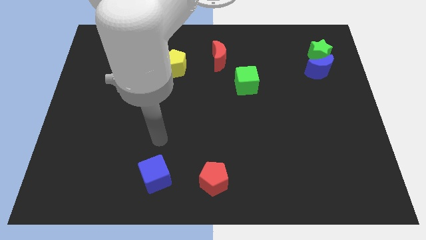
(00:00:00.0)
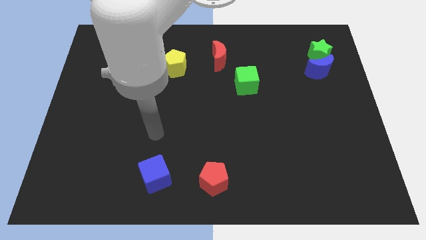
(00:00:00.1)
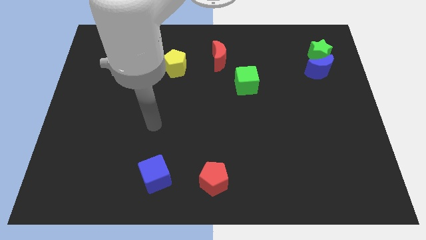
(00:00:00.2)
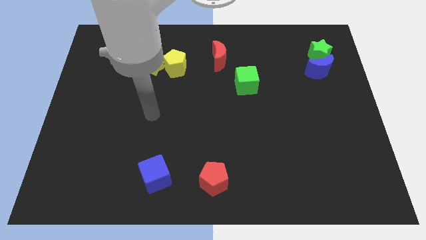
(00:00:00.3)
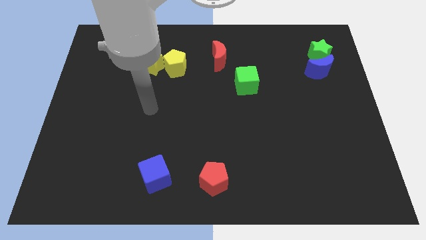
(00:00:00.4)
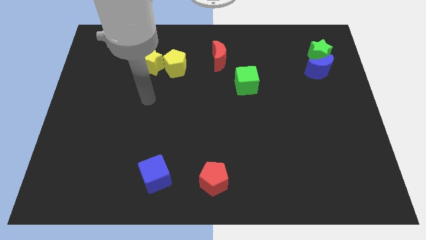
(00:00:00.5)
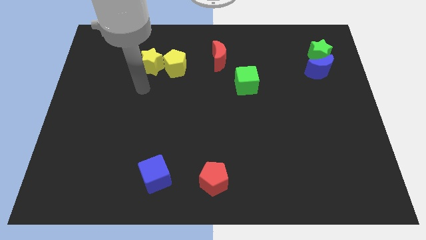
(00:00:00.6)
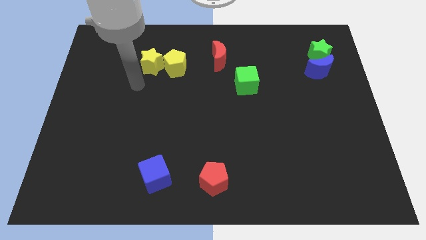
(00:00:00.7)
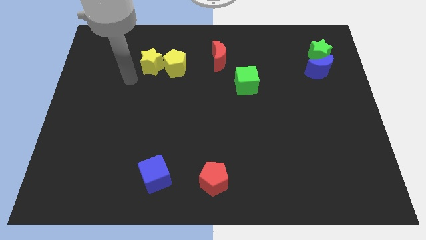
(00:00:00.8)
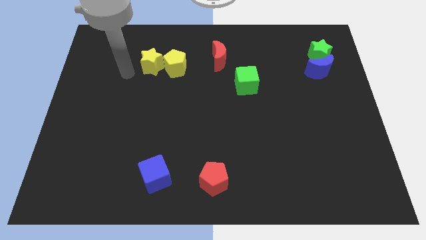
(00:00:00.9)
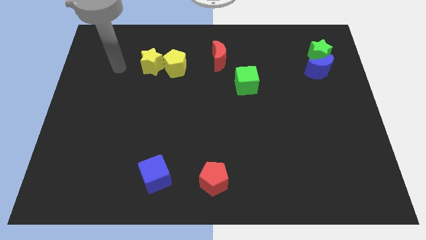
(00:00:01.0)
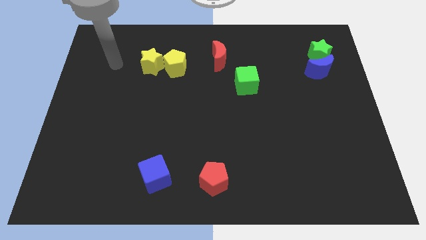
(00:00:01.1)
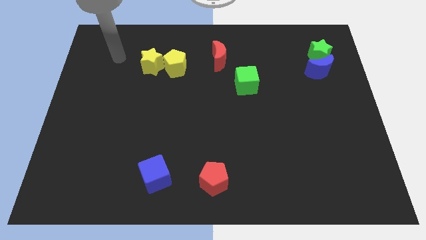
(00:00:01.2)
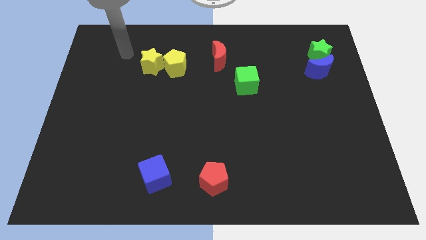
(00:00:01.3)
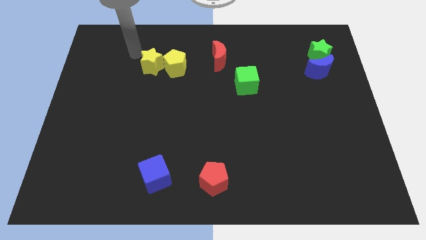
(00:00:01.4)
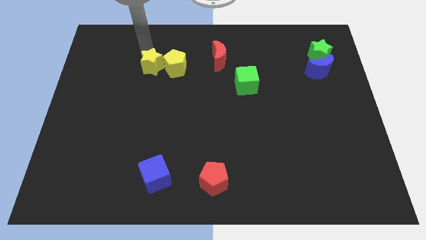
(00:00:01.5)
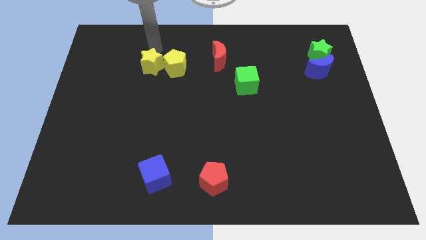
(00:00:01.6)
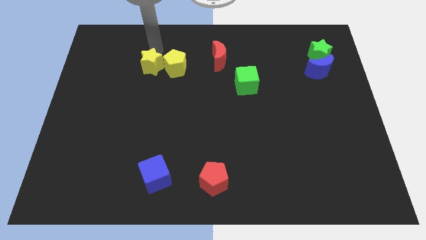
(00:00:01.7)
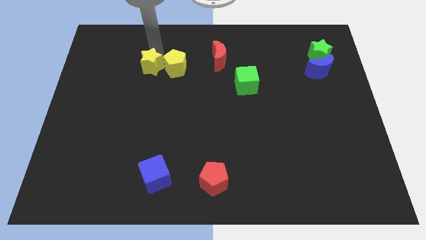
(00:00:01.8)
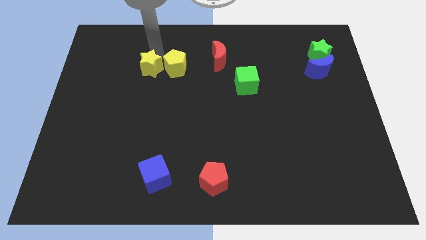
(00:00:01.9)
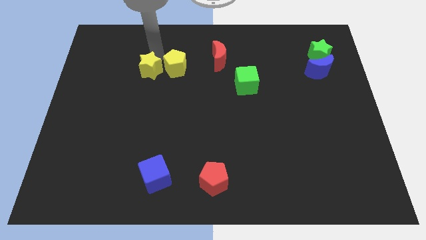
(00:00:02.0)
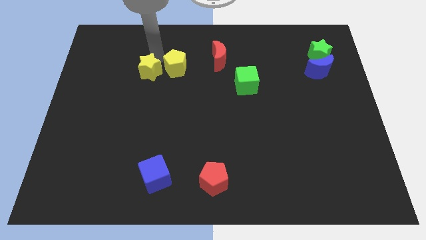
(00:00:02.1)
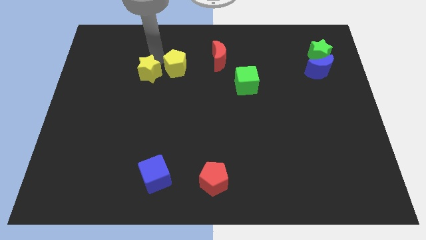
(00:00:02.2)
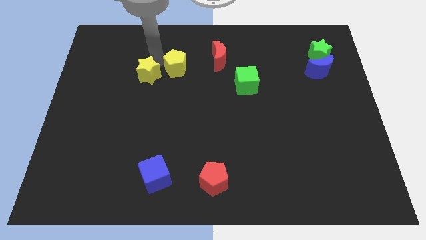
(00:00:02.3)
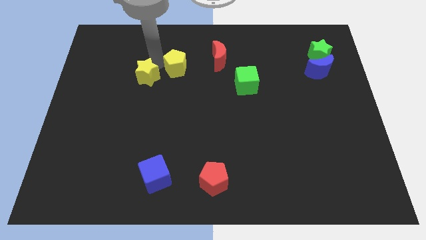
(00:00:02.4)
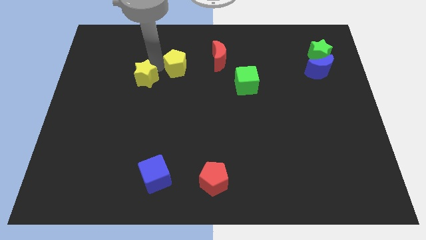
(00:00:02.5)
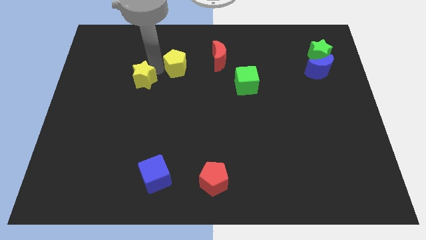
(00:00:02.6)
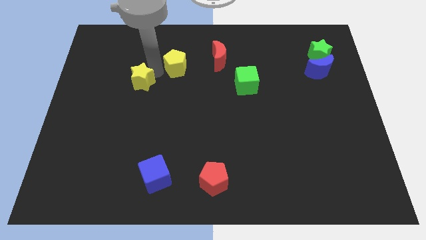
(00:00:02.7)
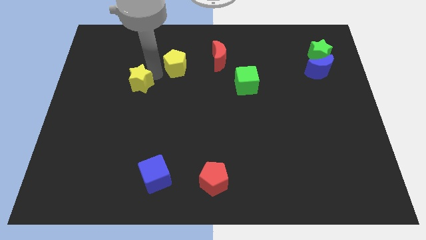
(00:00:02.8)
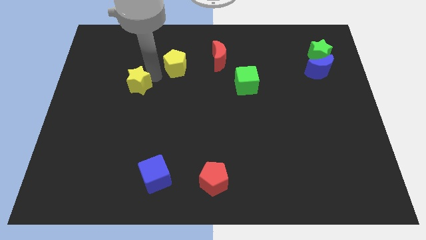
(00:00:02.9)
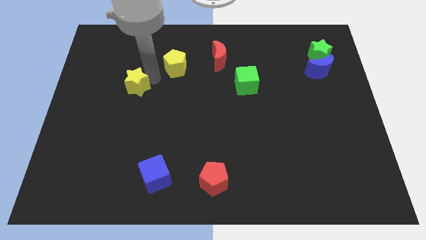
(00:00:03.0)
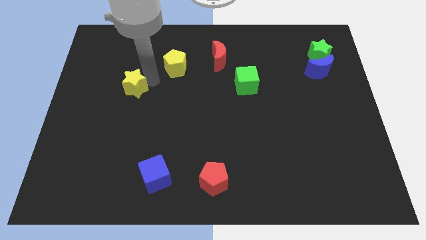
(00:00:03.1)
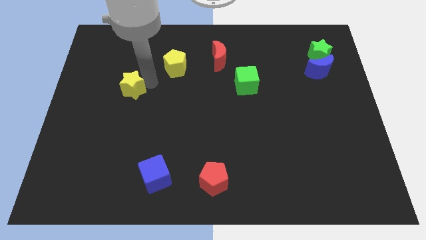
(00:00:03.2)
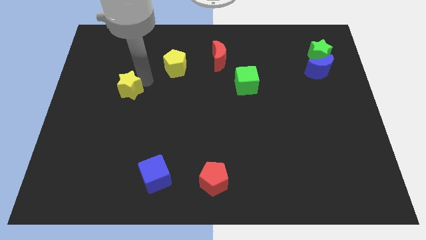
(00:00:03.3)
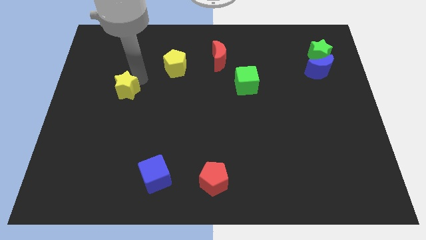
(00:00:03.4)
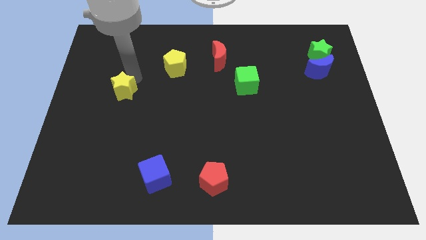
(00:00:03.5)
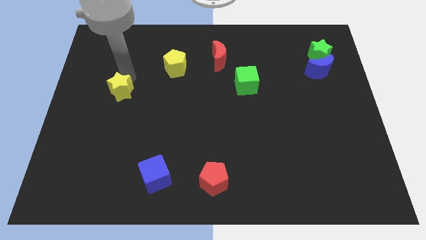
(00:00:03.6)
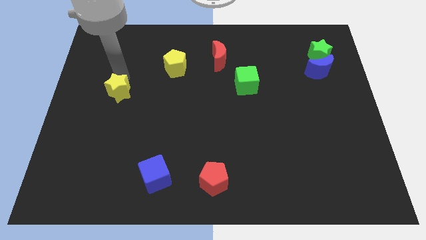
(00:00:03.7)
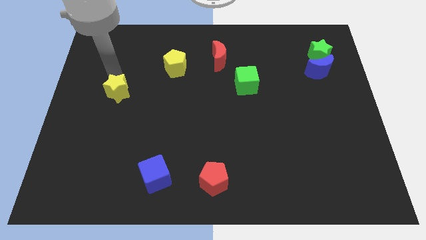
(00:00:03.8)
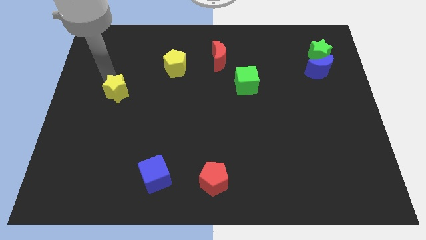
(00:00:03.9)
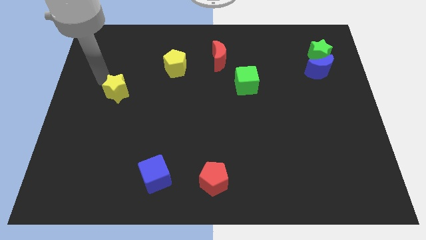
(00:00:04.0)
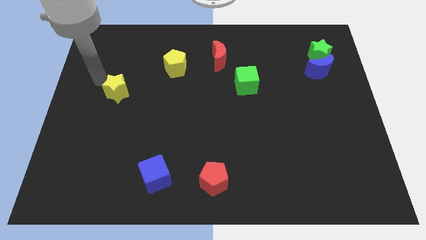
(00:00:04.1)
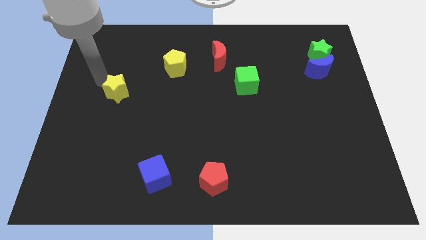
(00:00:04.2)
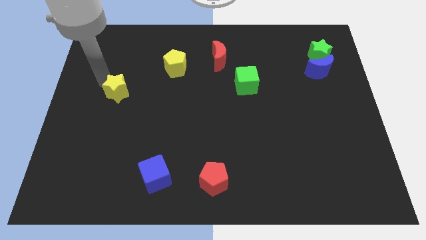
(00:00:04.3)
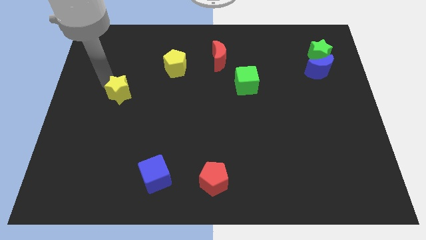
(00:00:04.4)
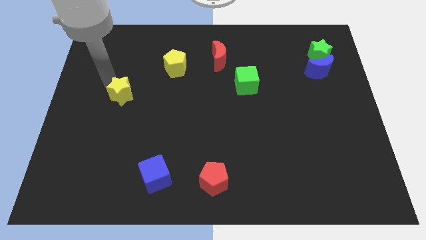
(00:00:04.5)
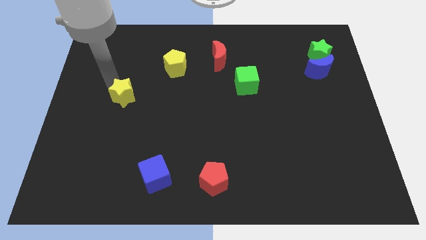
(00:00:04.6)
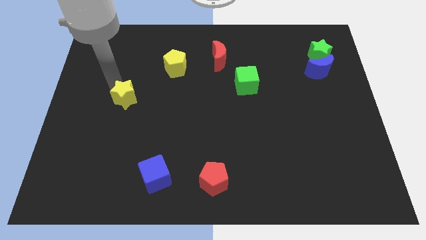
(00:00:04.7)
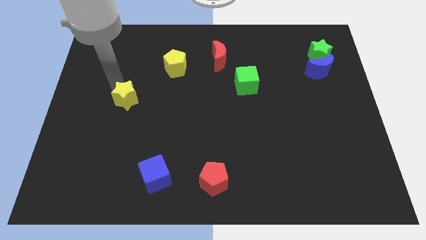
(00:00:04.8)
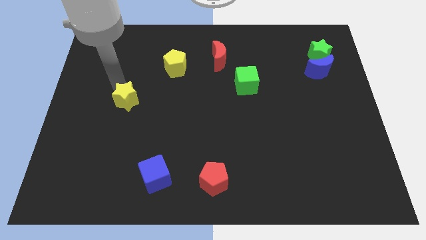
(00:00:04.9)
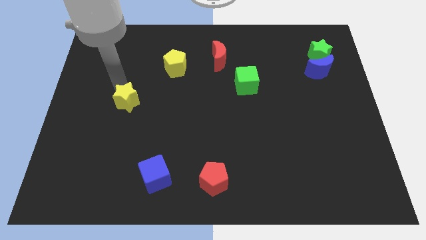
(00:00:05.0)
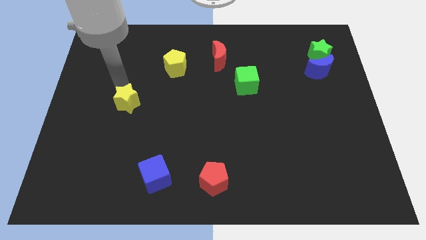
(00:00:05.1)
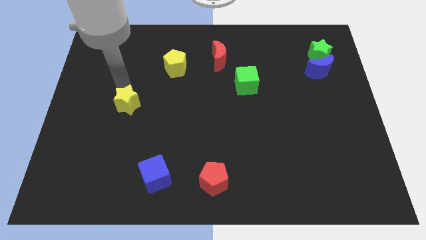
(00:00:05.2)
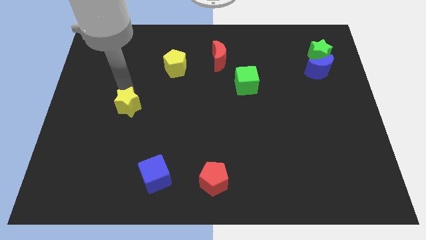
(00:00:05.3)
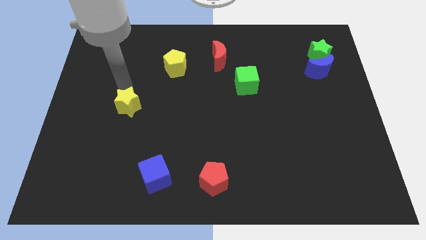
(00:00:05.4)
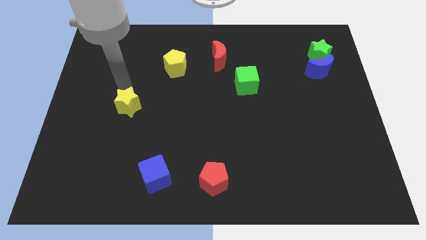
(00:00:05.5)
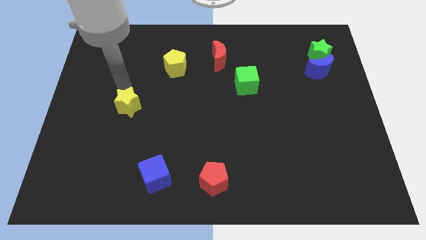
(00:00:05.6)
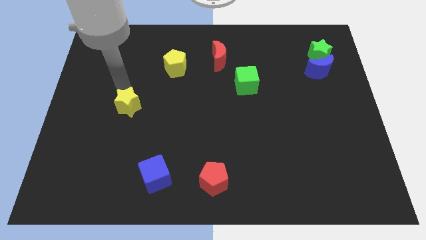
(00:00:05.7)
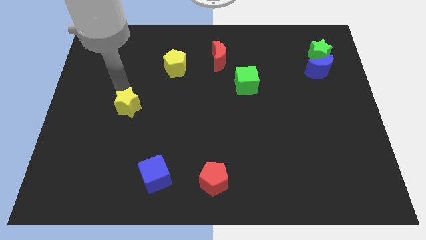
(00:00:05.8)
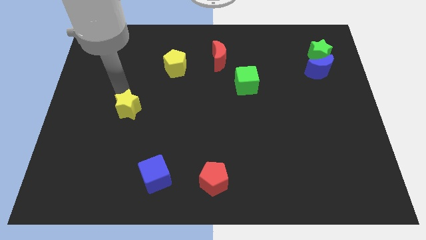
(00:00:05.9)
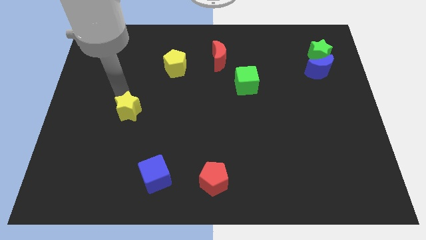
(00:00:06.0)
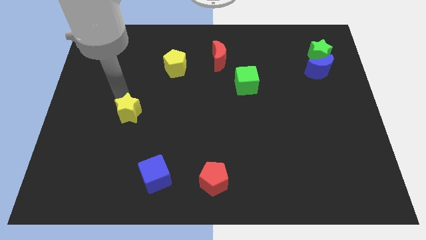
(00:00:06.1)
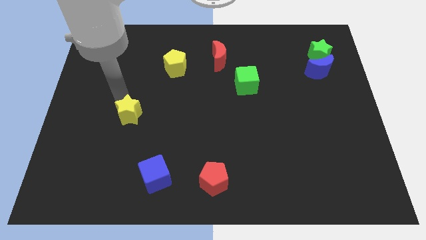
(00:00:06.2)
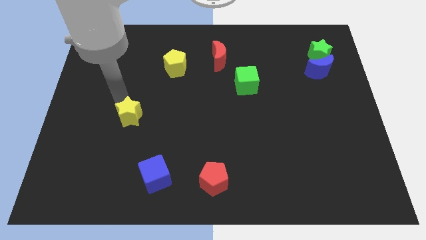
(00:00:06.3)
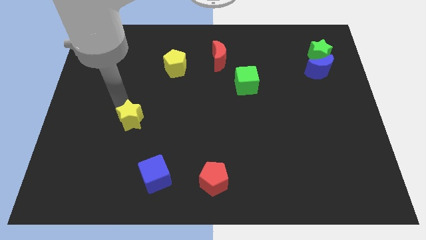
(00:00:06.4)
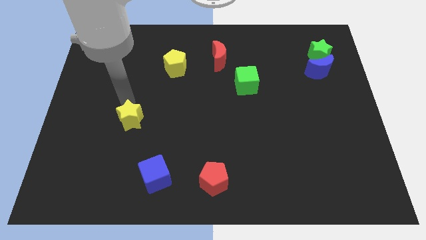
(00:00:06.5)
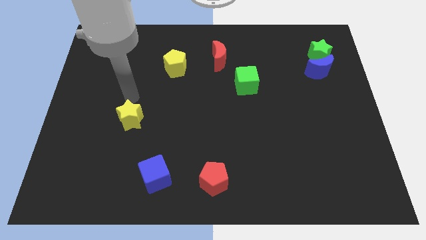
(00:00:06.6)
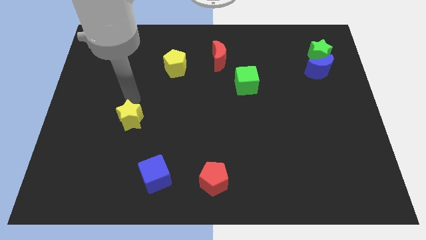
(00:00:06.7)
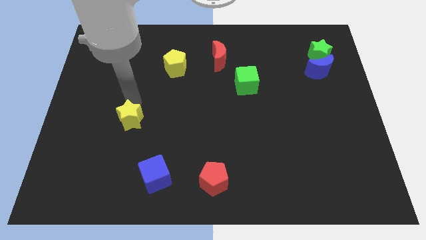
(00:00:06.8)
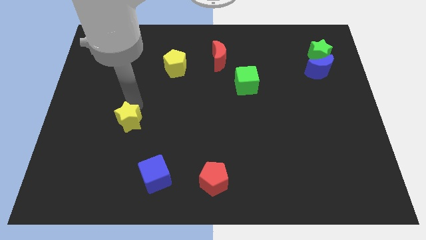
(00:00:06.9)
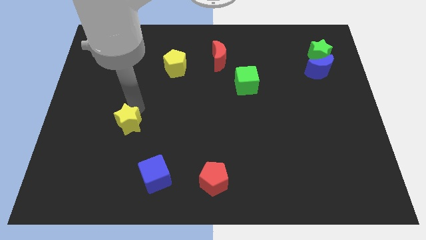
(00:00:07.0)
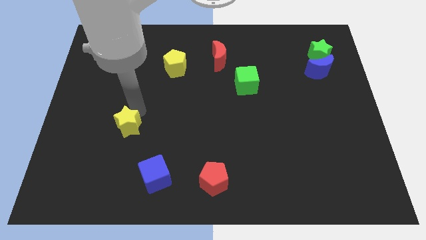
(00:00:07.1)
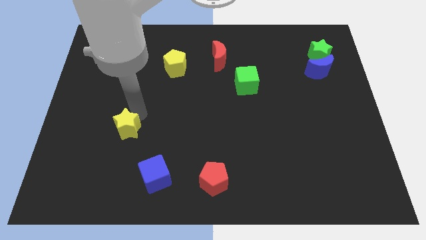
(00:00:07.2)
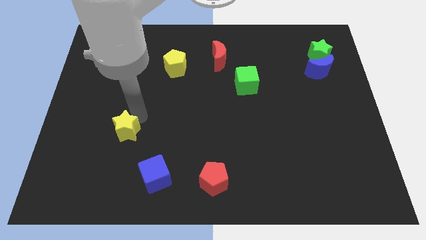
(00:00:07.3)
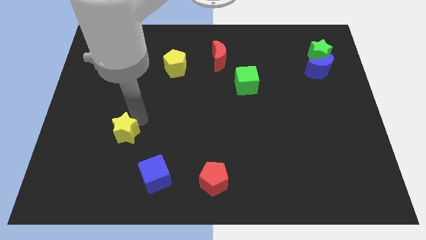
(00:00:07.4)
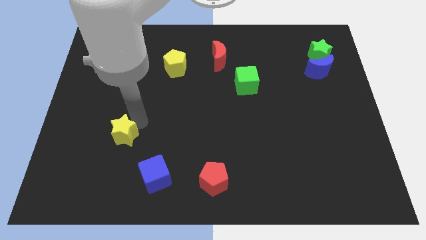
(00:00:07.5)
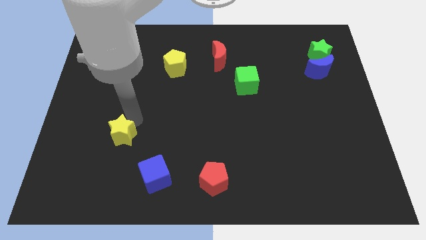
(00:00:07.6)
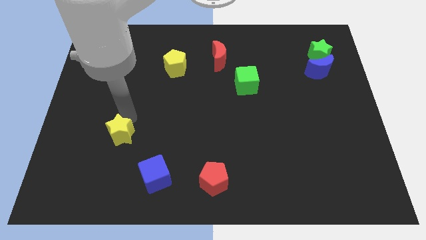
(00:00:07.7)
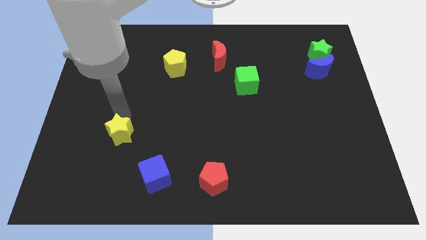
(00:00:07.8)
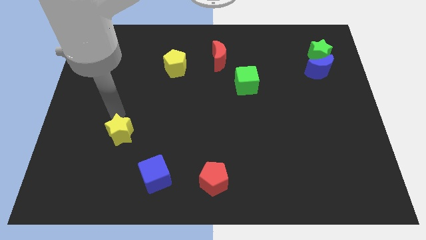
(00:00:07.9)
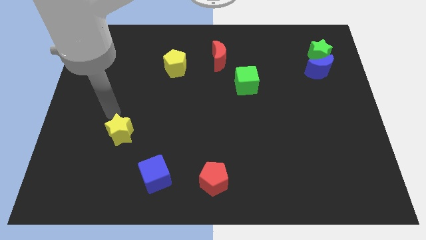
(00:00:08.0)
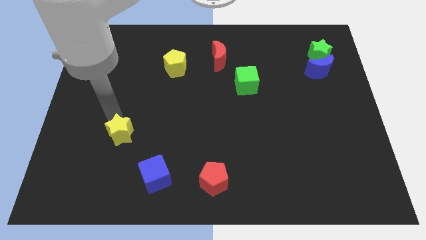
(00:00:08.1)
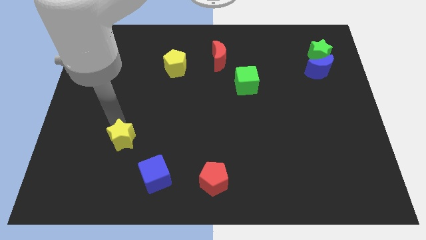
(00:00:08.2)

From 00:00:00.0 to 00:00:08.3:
slide the yellow star to the top left of the blue cube
